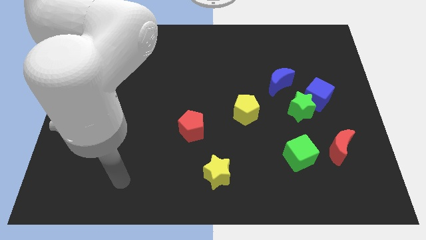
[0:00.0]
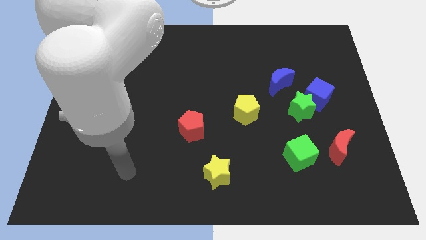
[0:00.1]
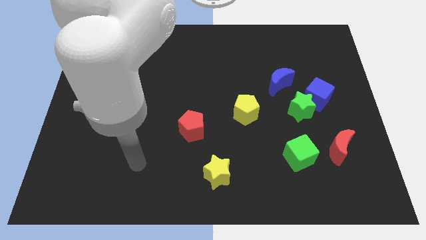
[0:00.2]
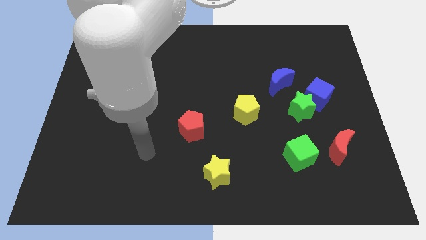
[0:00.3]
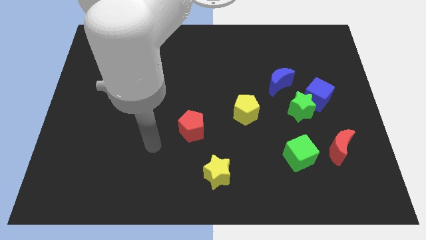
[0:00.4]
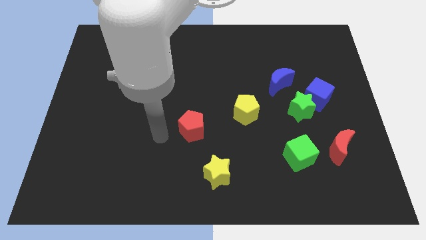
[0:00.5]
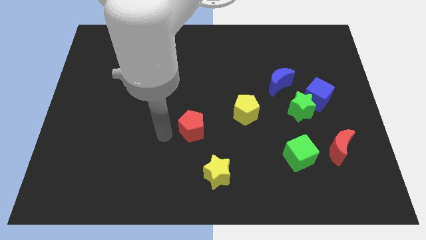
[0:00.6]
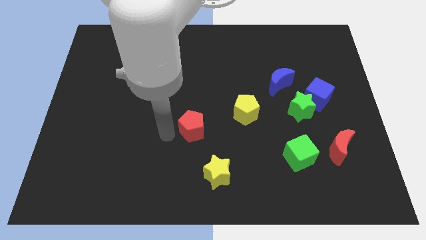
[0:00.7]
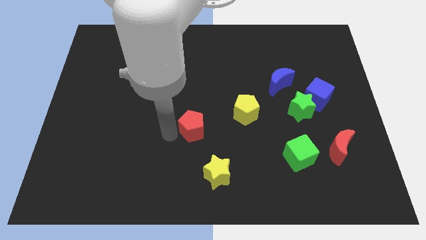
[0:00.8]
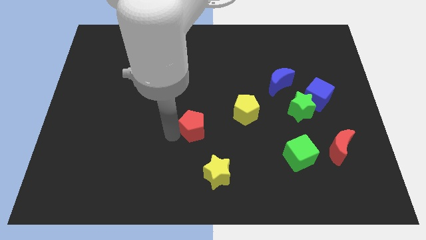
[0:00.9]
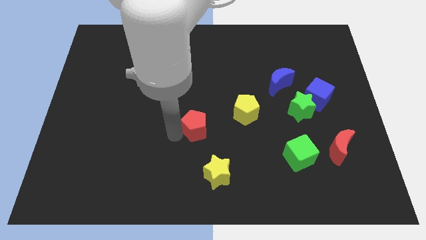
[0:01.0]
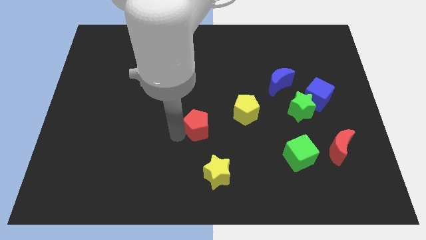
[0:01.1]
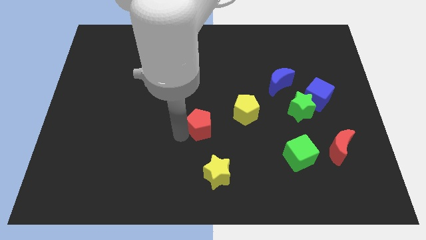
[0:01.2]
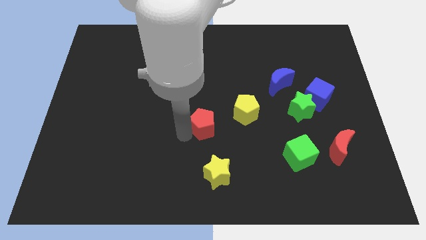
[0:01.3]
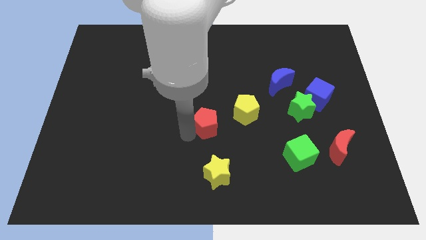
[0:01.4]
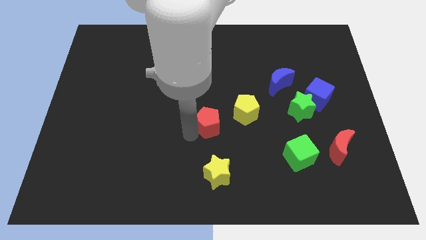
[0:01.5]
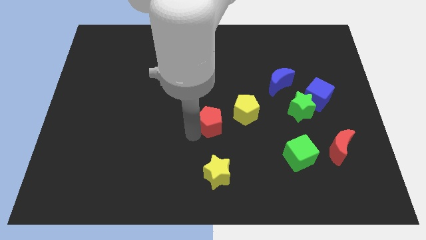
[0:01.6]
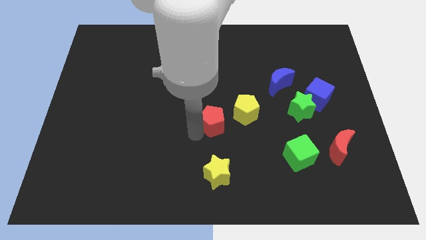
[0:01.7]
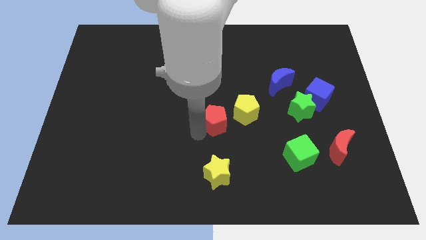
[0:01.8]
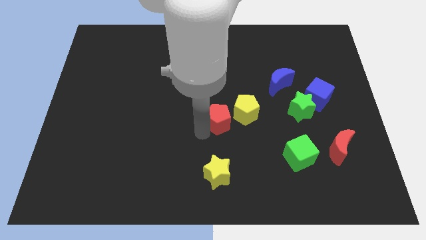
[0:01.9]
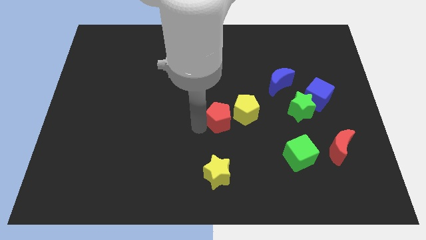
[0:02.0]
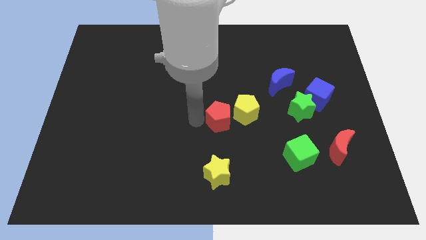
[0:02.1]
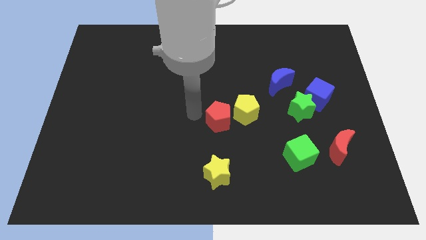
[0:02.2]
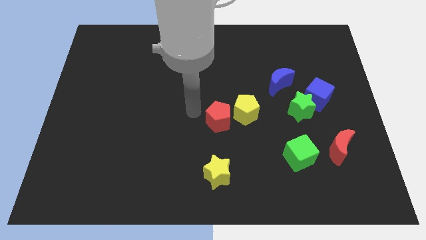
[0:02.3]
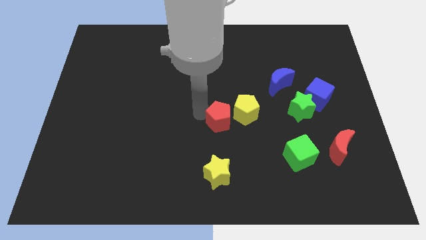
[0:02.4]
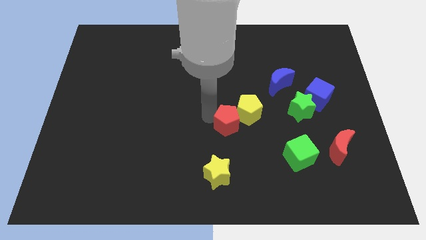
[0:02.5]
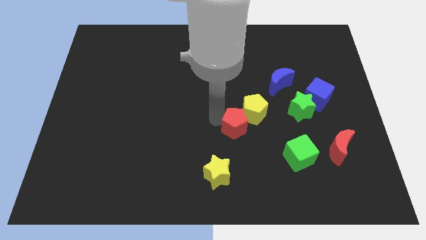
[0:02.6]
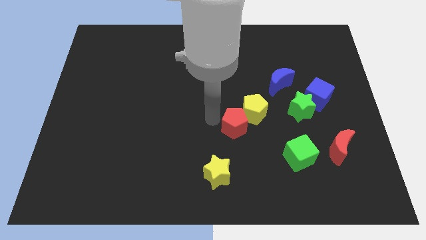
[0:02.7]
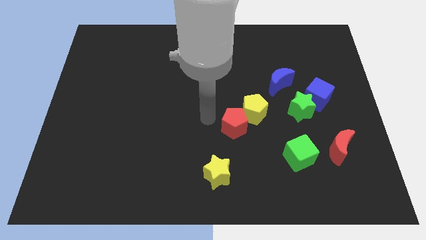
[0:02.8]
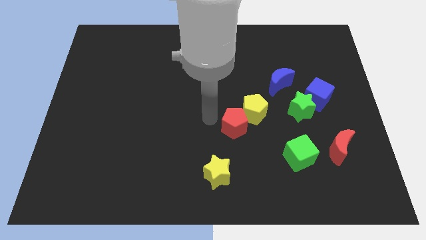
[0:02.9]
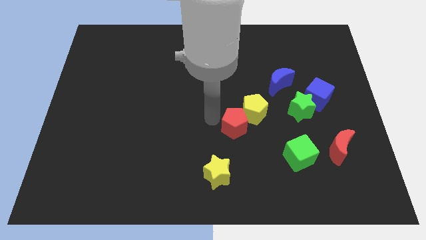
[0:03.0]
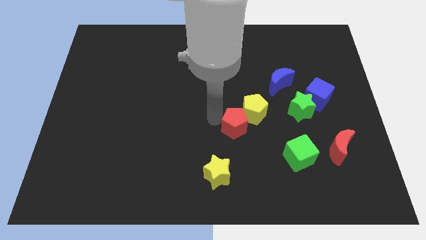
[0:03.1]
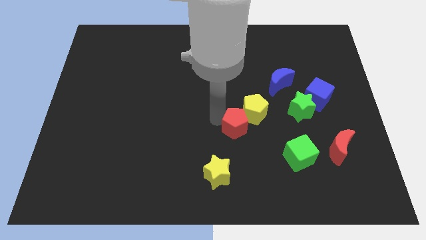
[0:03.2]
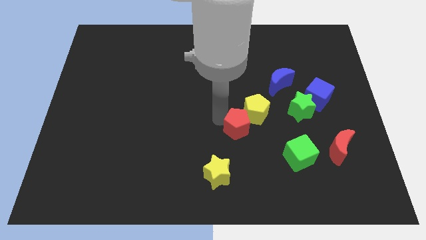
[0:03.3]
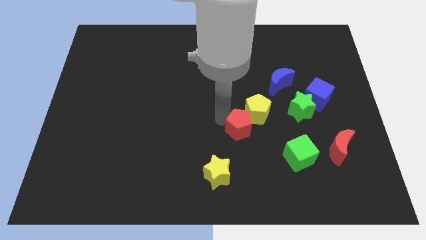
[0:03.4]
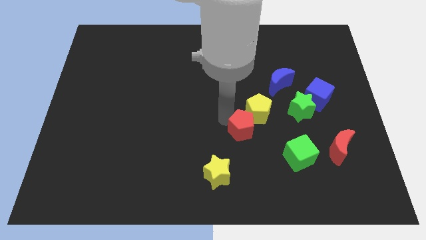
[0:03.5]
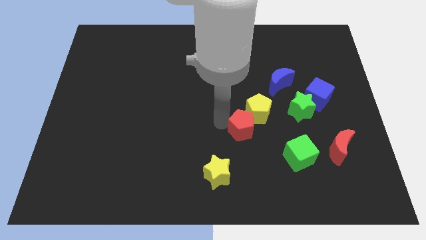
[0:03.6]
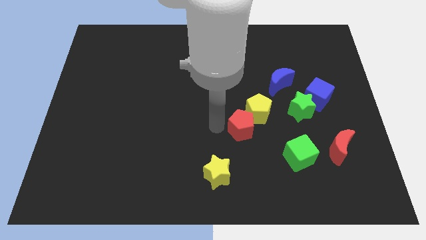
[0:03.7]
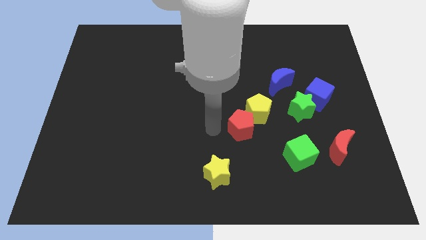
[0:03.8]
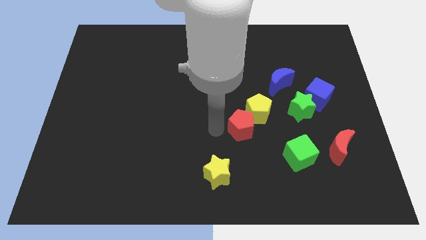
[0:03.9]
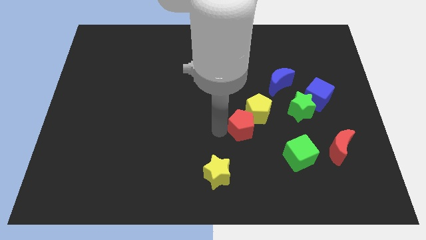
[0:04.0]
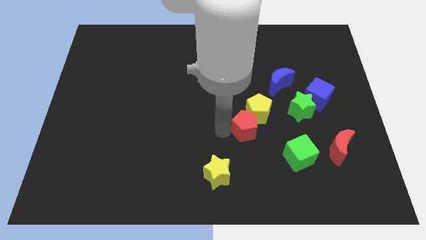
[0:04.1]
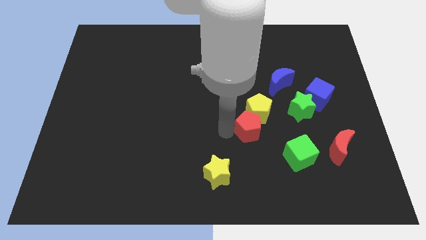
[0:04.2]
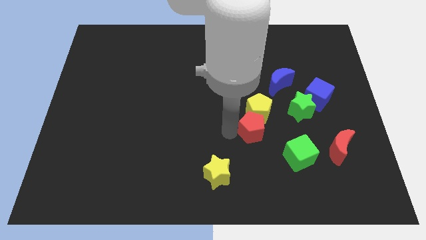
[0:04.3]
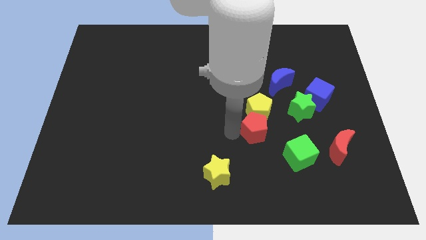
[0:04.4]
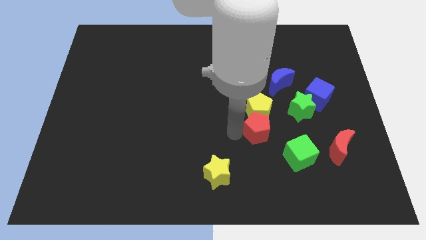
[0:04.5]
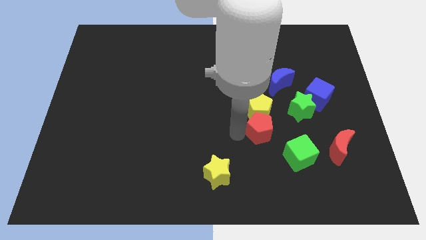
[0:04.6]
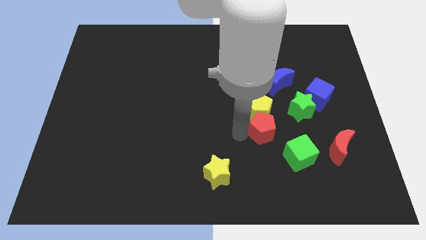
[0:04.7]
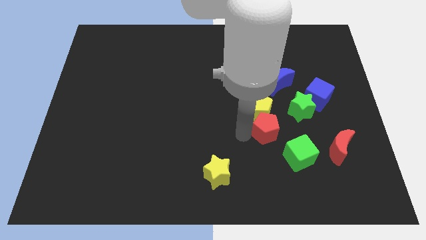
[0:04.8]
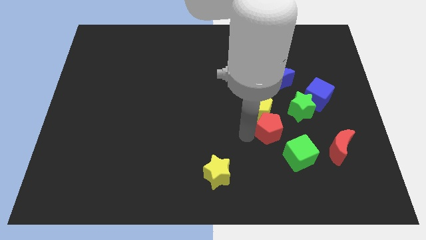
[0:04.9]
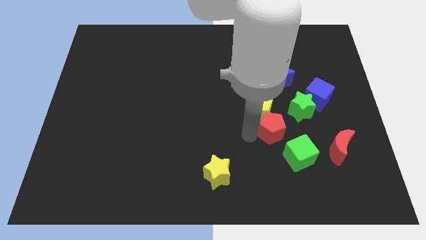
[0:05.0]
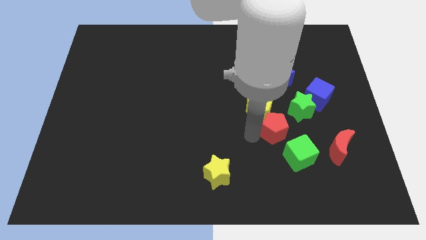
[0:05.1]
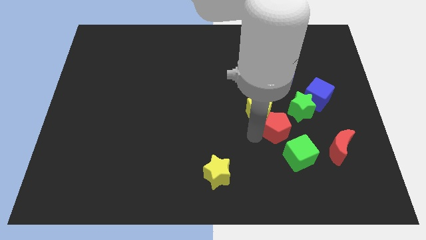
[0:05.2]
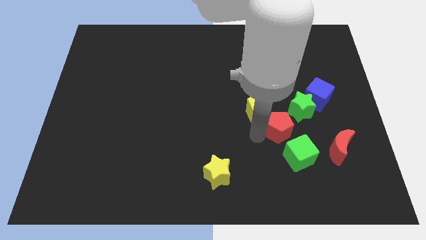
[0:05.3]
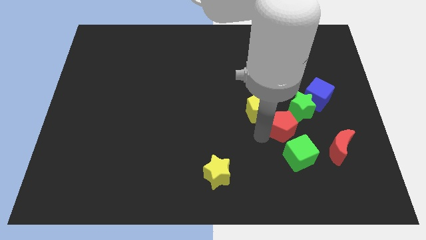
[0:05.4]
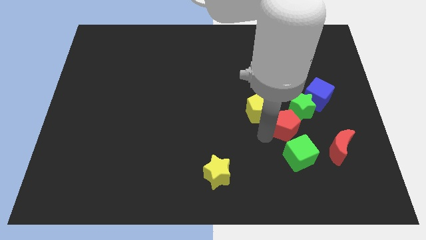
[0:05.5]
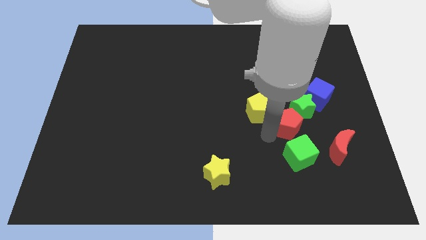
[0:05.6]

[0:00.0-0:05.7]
push the red pentagon towards the green star

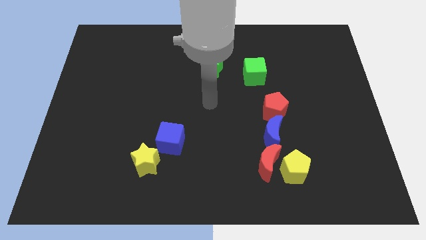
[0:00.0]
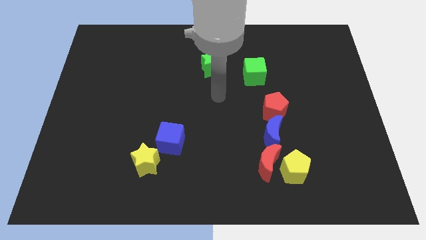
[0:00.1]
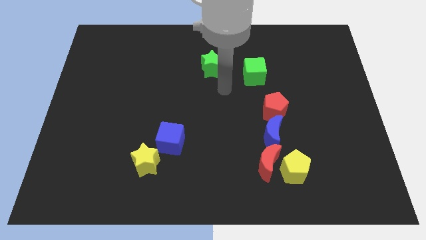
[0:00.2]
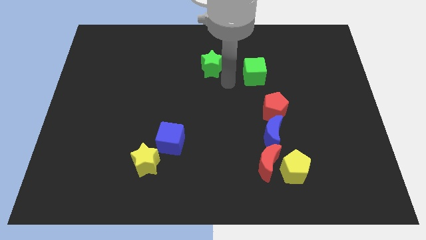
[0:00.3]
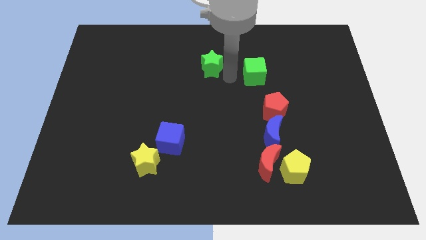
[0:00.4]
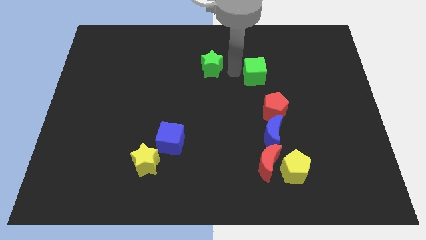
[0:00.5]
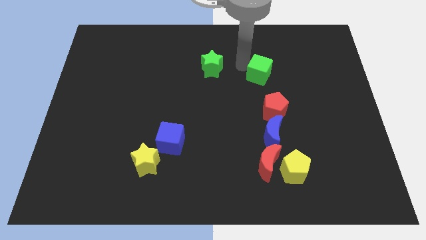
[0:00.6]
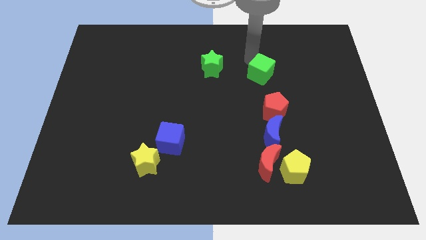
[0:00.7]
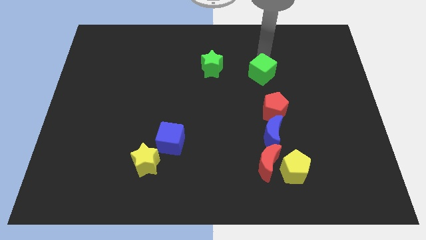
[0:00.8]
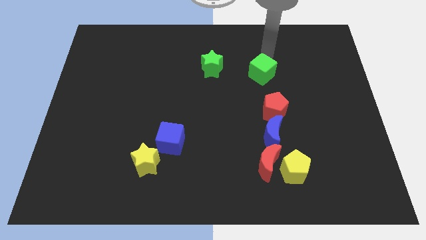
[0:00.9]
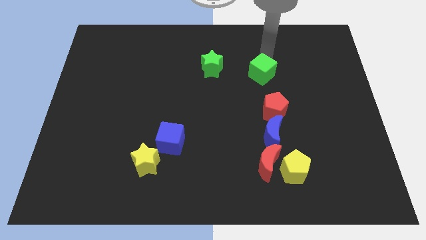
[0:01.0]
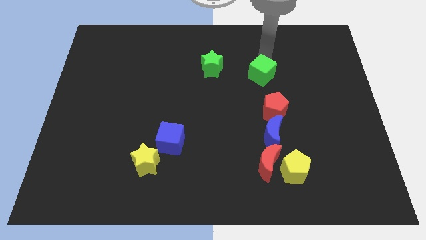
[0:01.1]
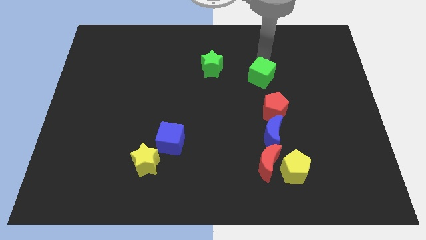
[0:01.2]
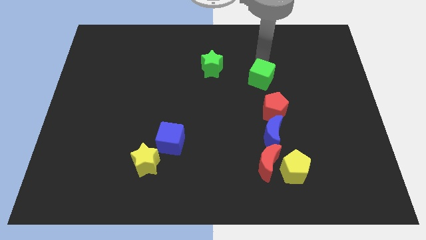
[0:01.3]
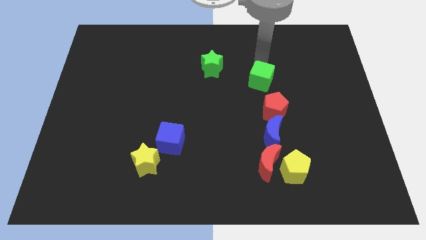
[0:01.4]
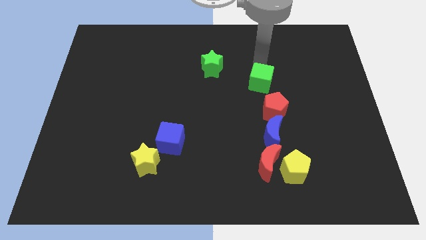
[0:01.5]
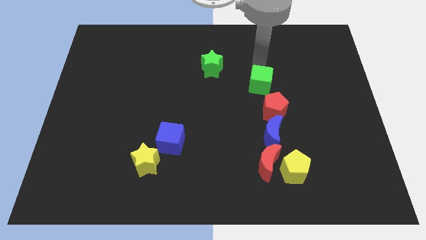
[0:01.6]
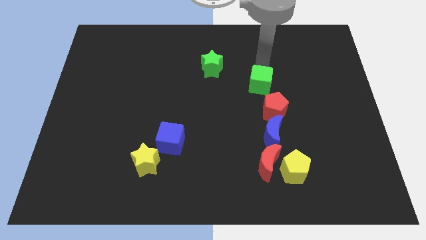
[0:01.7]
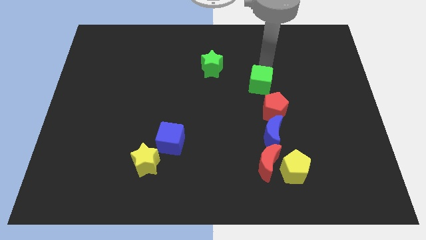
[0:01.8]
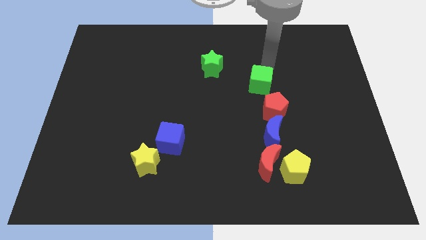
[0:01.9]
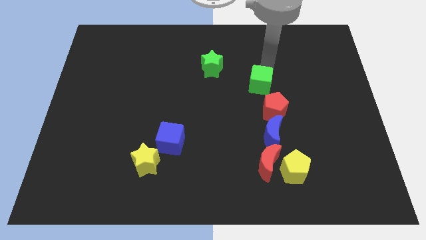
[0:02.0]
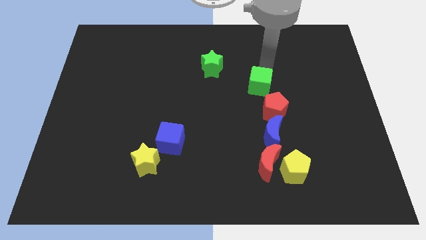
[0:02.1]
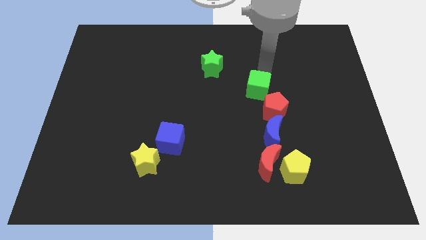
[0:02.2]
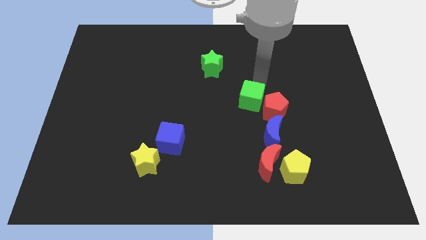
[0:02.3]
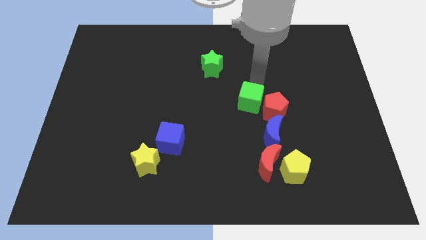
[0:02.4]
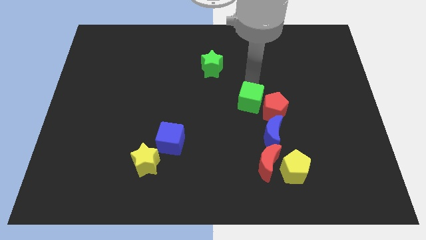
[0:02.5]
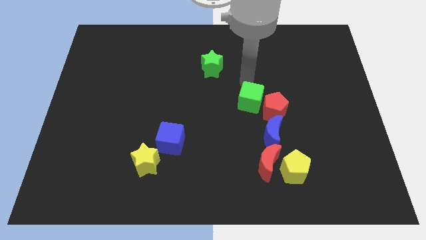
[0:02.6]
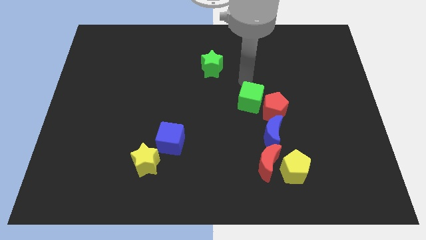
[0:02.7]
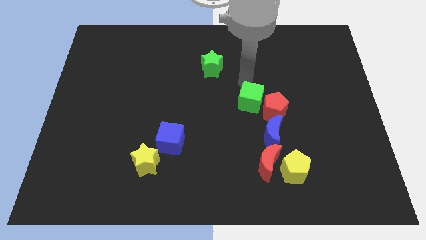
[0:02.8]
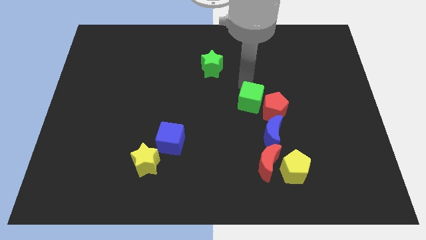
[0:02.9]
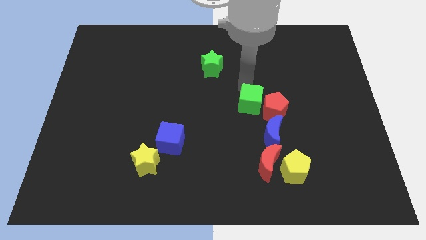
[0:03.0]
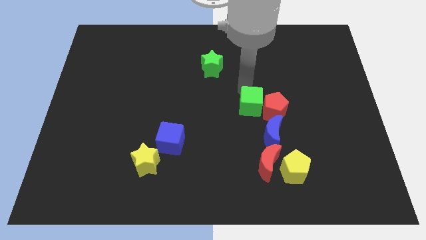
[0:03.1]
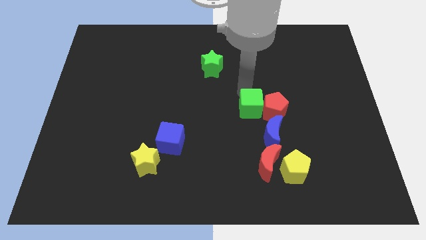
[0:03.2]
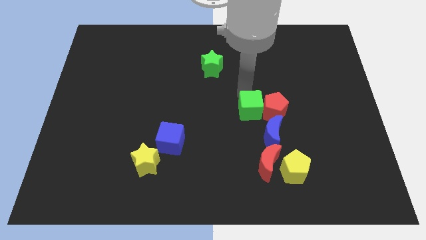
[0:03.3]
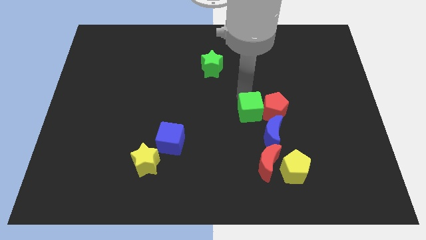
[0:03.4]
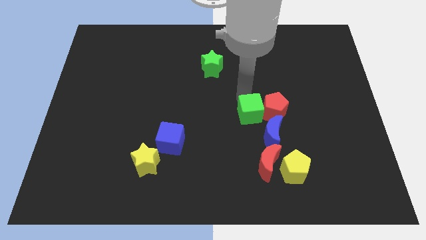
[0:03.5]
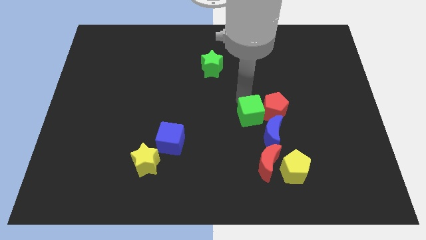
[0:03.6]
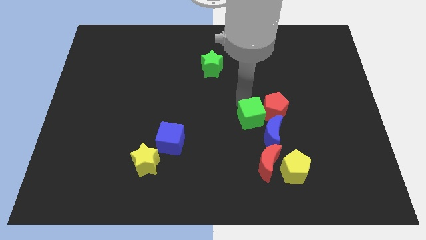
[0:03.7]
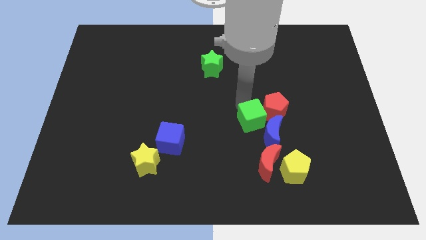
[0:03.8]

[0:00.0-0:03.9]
move the green cube to the blue moon
